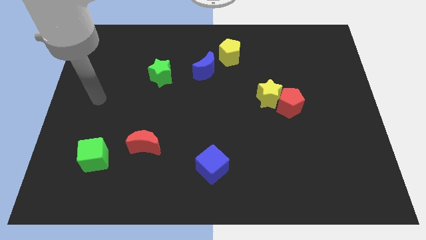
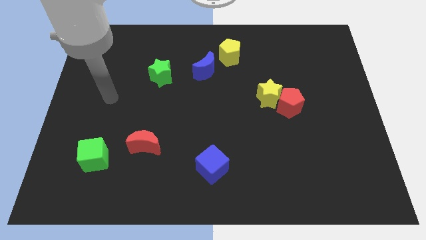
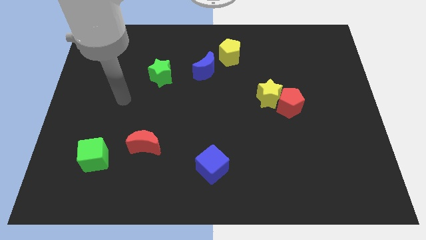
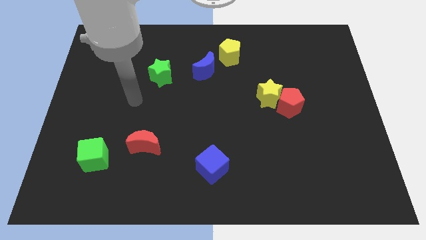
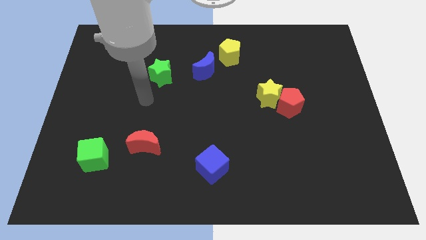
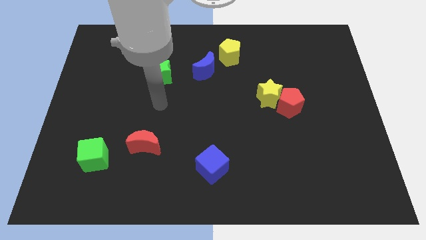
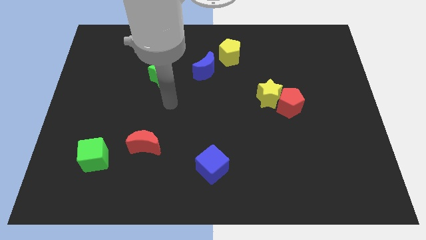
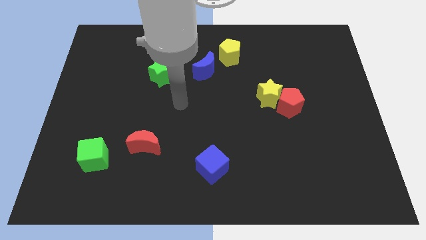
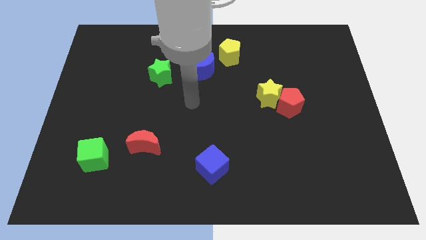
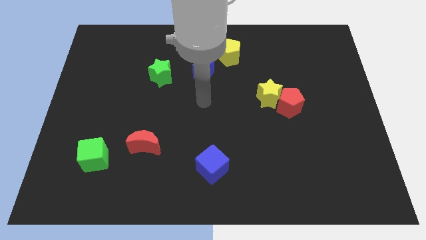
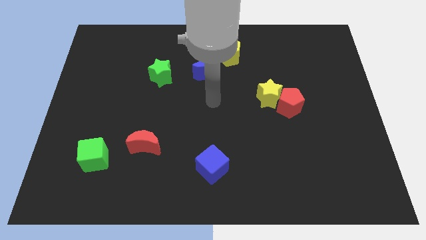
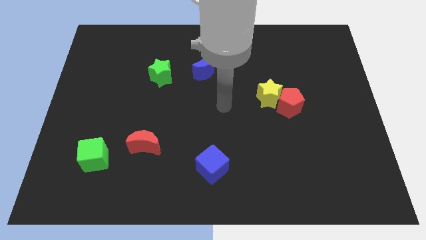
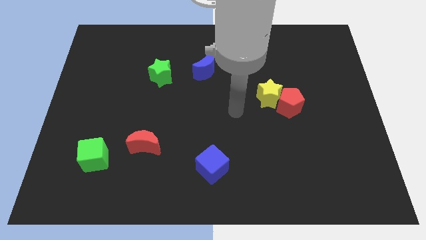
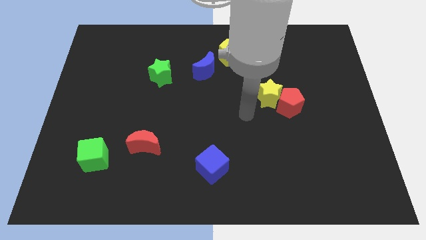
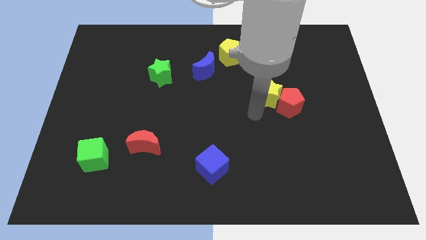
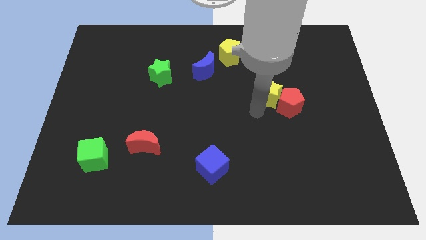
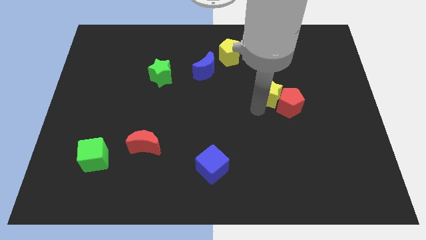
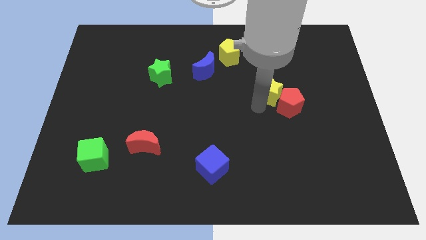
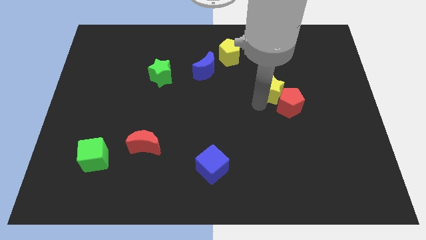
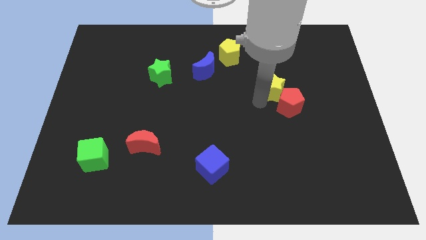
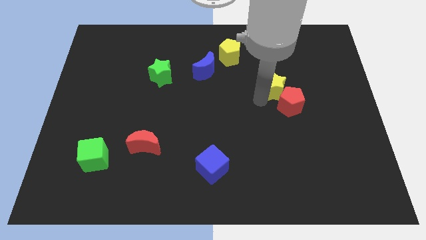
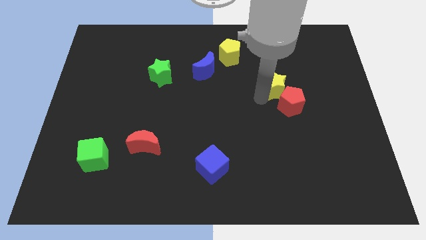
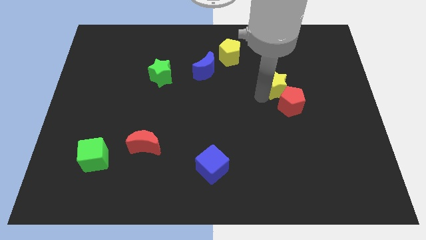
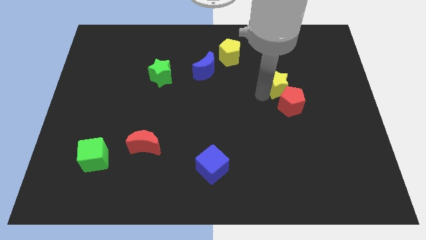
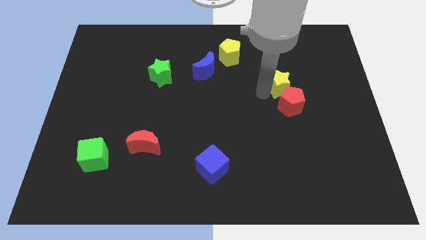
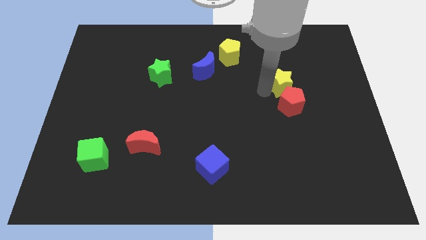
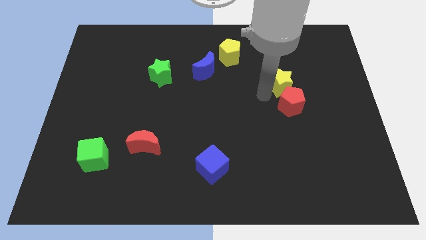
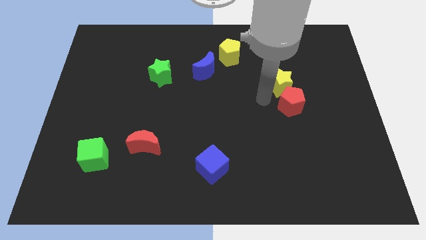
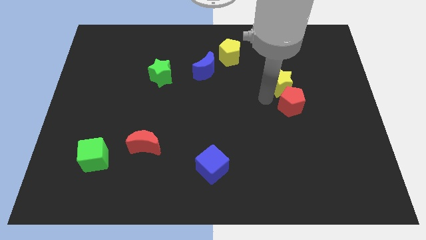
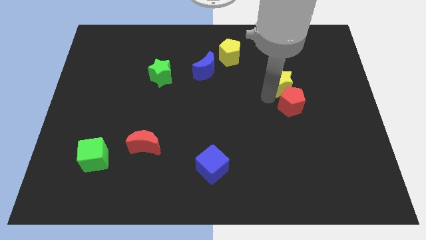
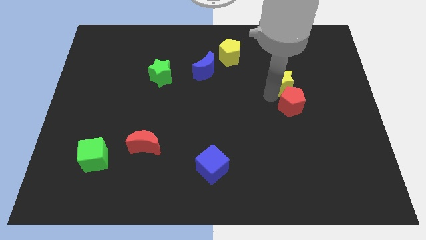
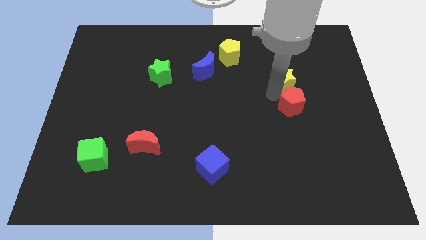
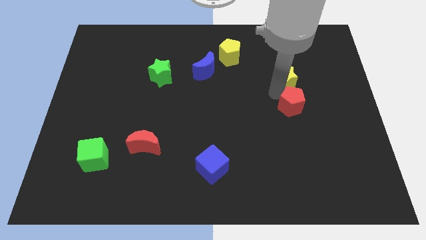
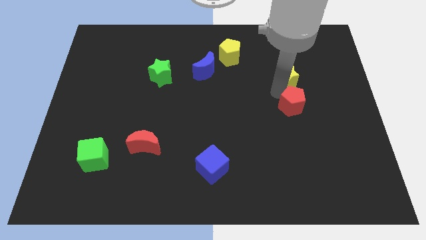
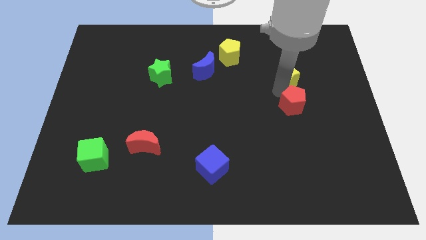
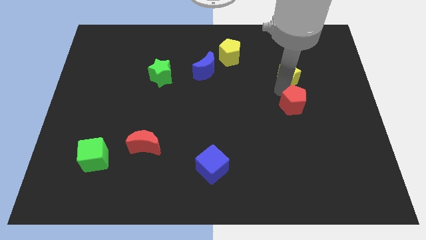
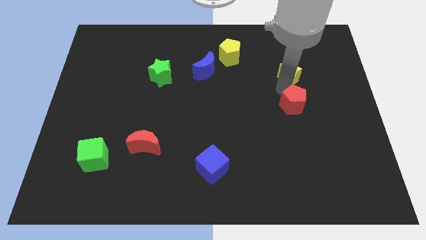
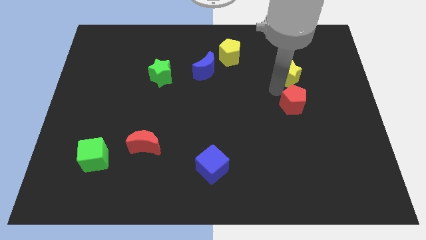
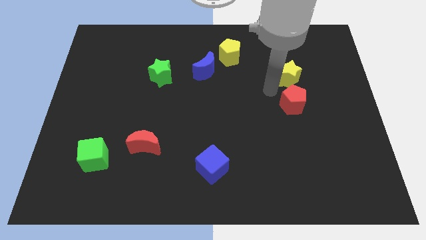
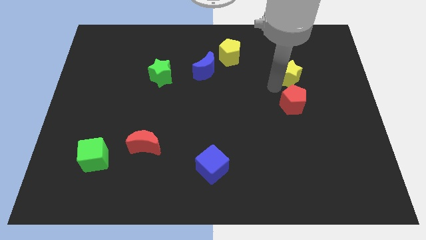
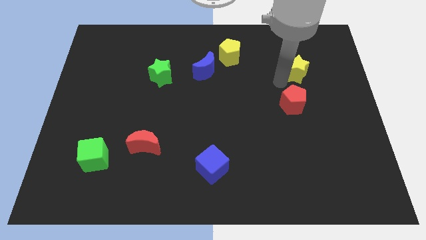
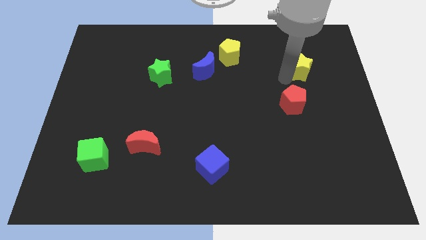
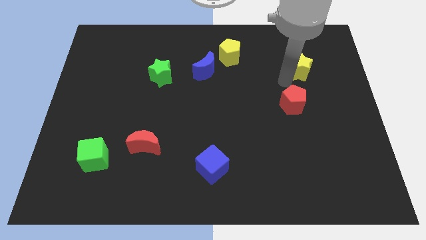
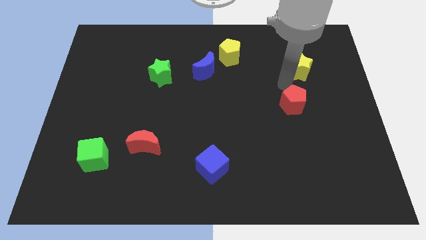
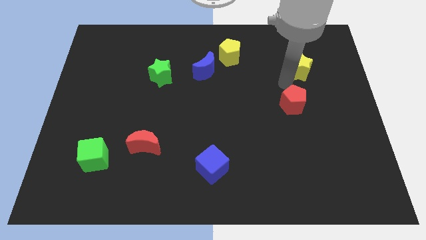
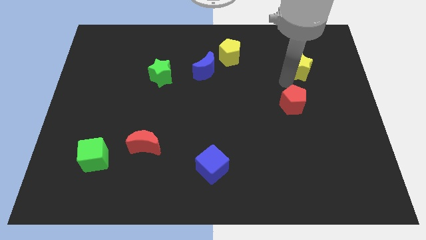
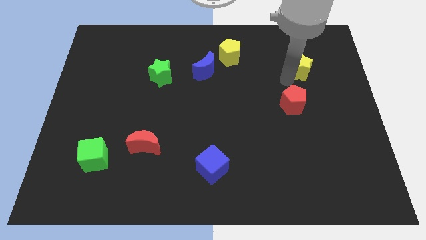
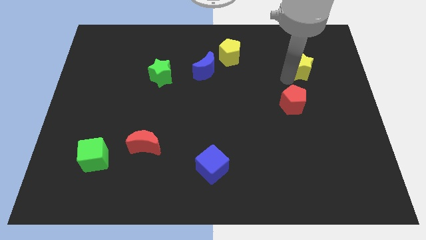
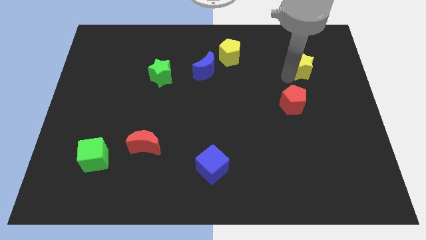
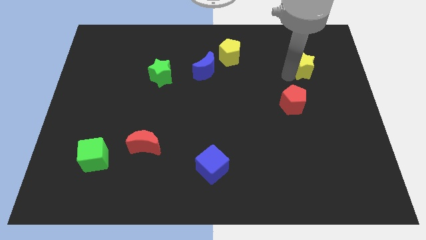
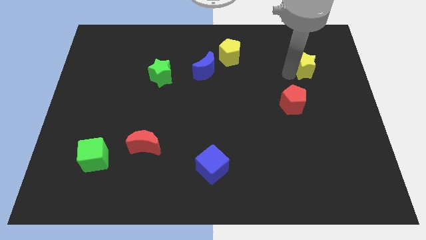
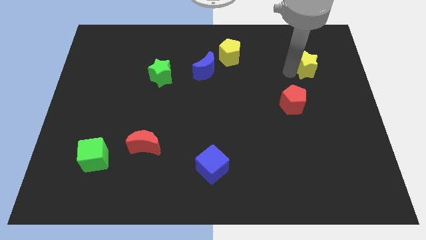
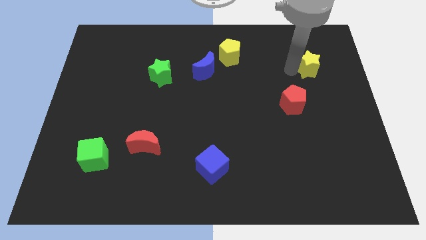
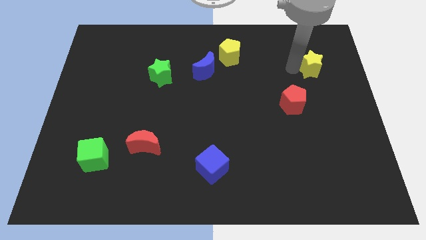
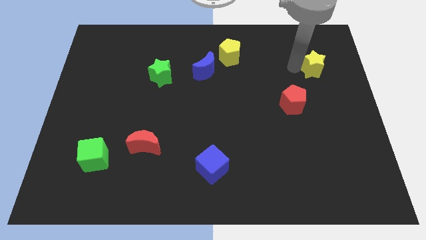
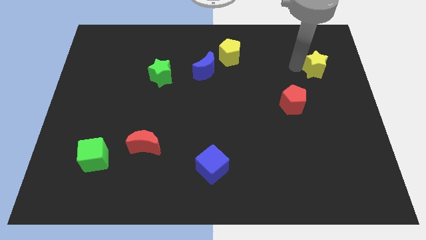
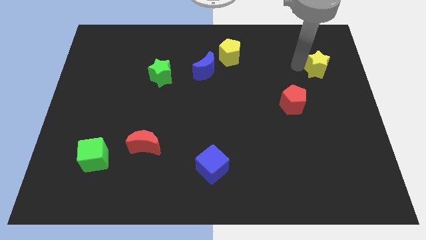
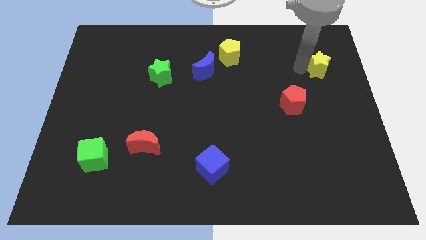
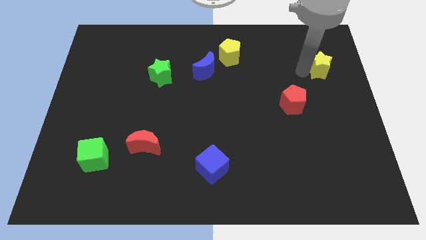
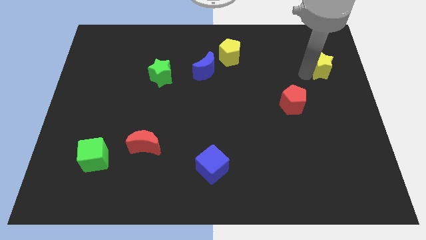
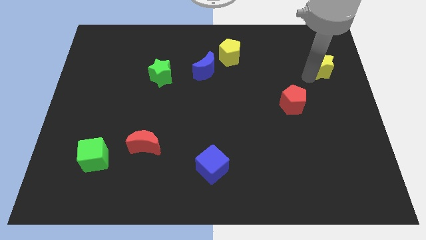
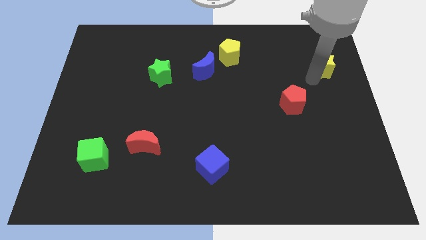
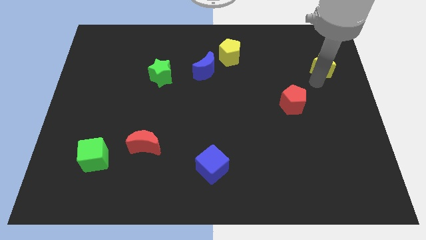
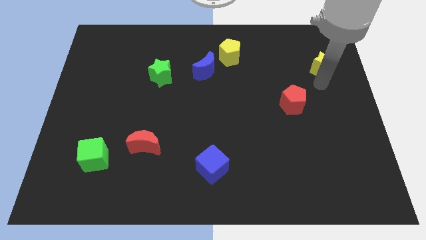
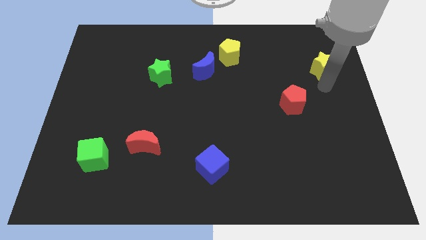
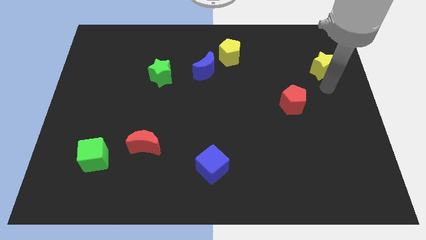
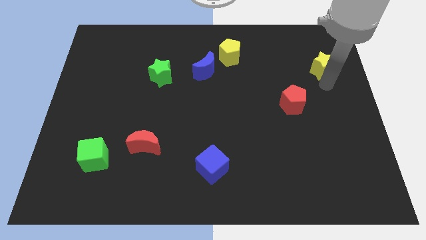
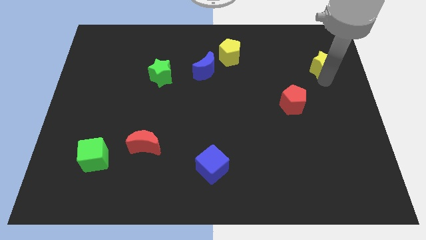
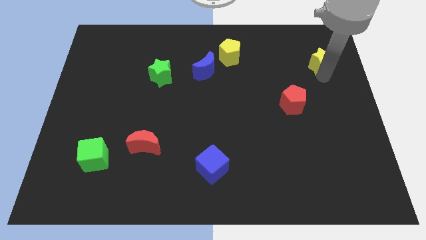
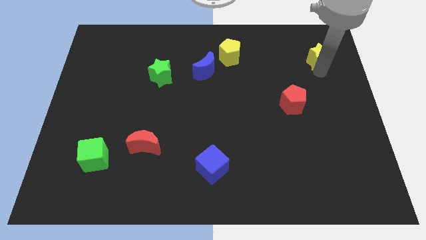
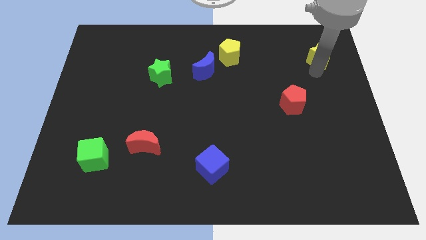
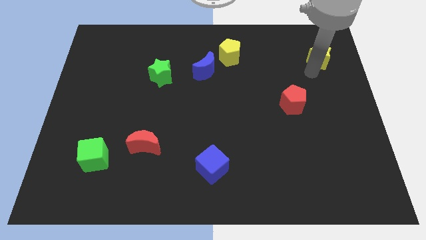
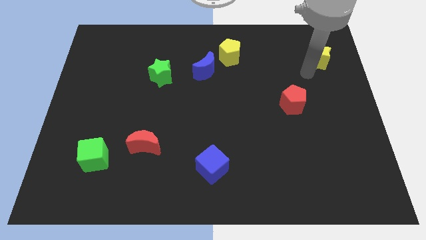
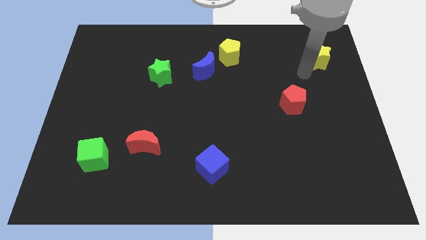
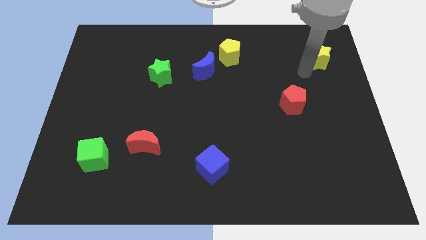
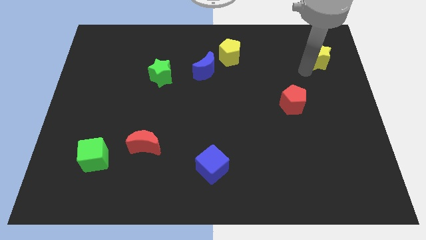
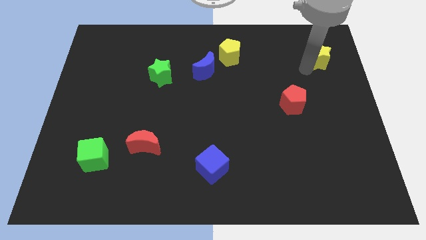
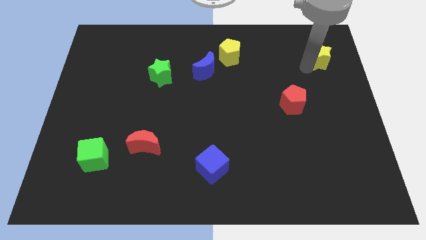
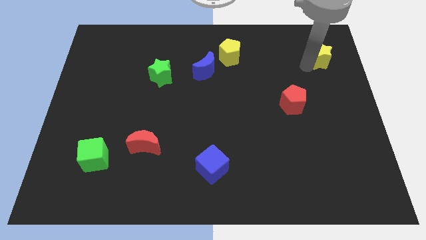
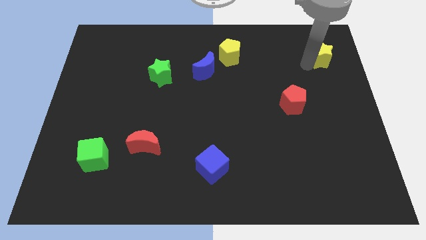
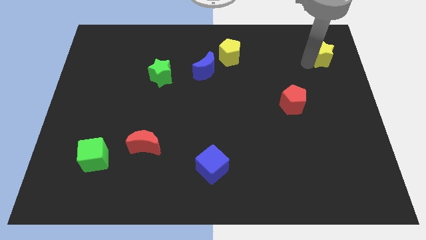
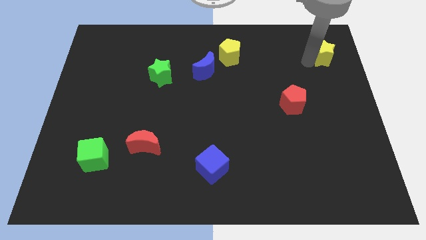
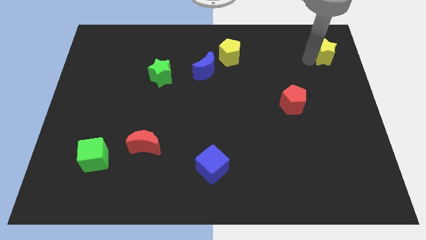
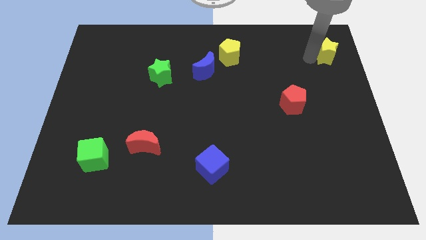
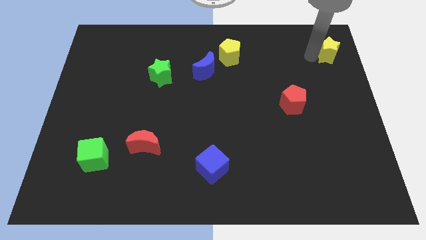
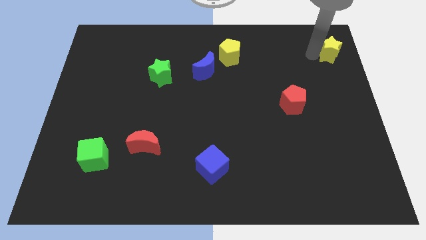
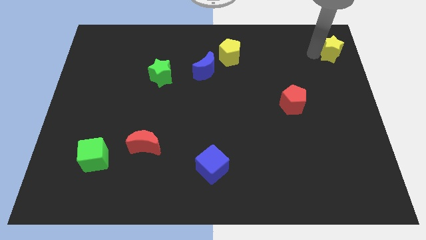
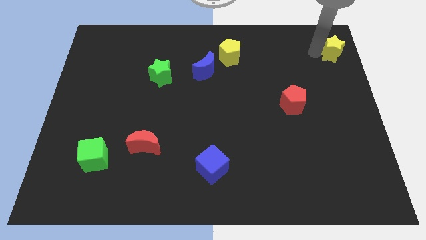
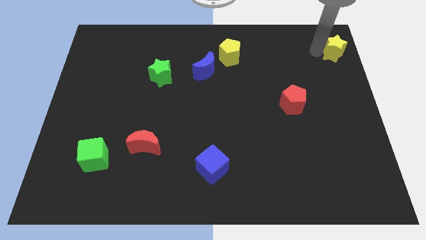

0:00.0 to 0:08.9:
push the yellow star to the top right
